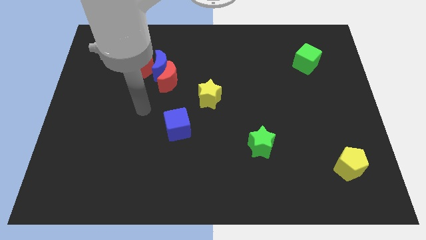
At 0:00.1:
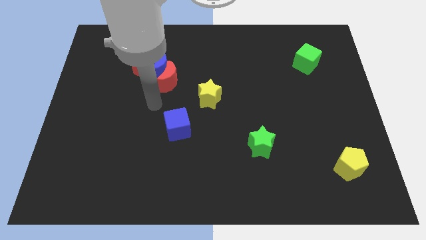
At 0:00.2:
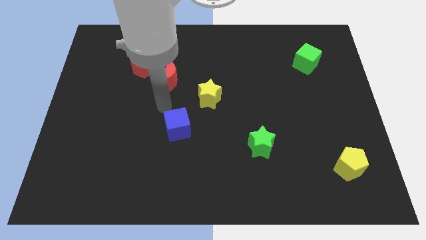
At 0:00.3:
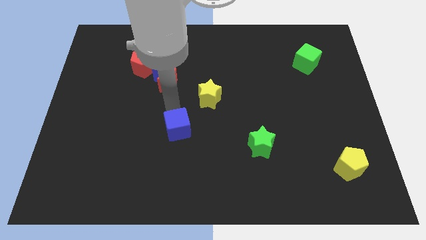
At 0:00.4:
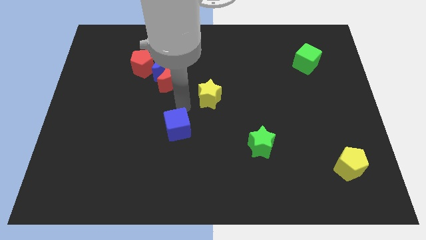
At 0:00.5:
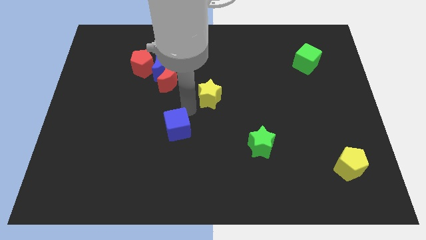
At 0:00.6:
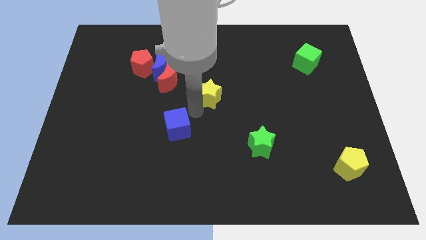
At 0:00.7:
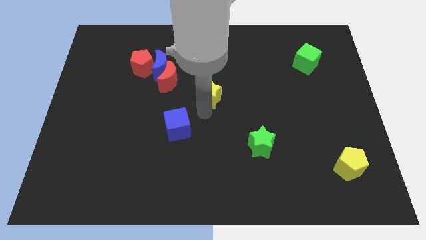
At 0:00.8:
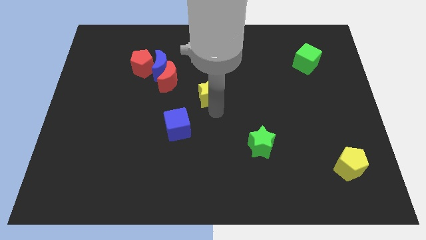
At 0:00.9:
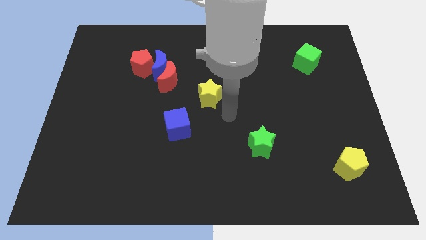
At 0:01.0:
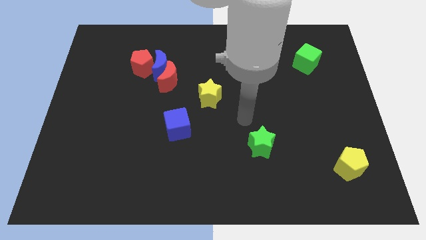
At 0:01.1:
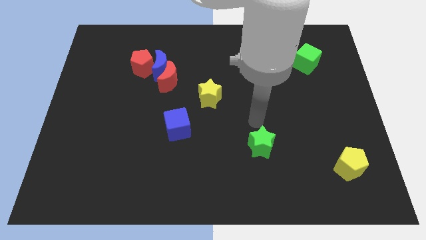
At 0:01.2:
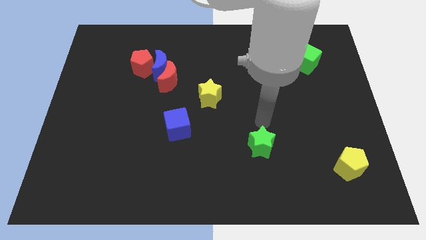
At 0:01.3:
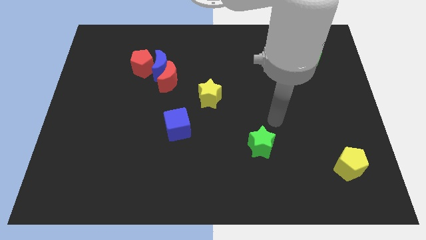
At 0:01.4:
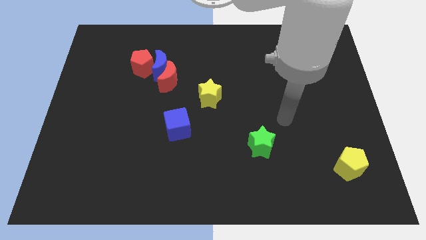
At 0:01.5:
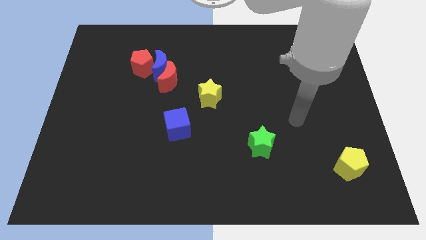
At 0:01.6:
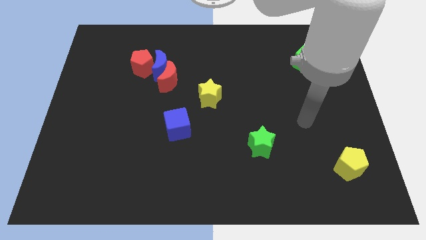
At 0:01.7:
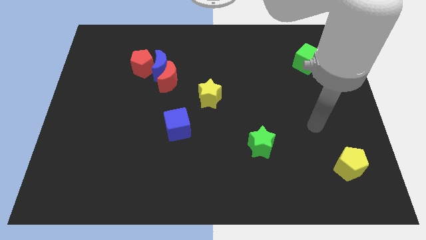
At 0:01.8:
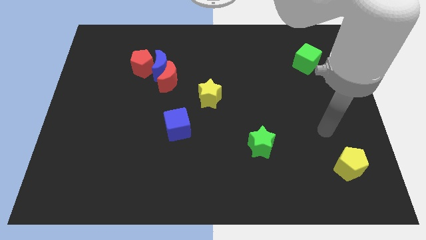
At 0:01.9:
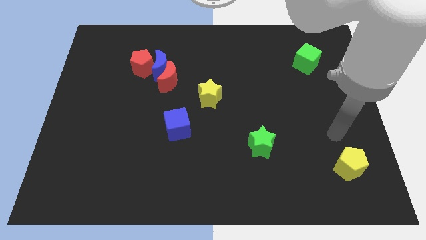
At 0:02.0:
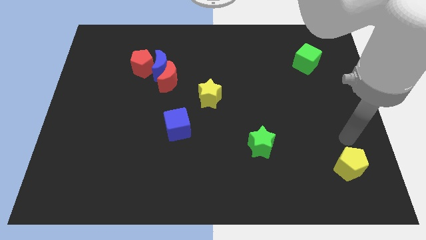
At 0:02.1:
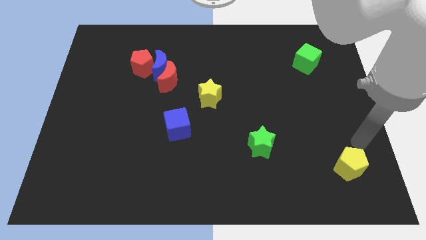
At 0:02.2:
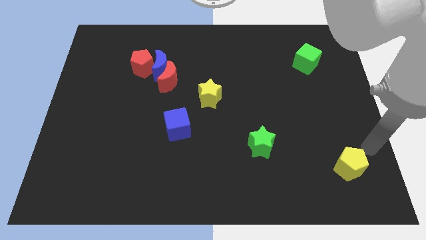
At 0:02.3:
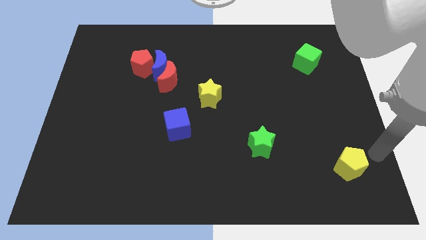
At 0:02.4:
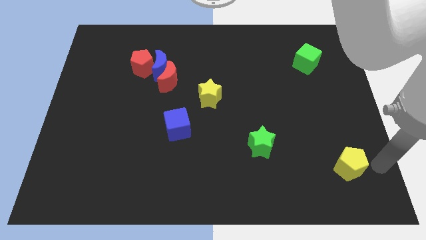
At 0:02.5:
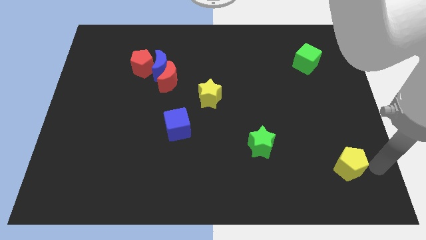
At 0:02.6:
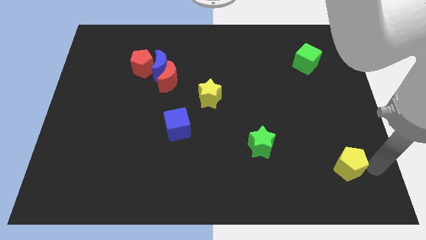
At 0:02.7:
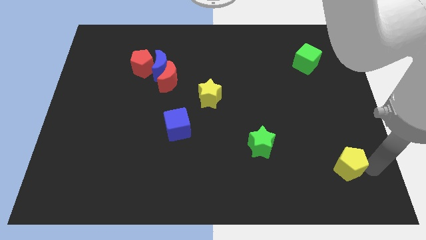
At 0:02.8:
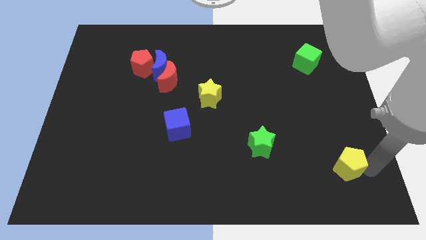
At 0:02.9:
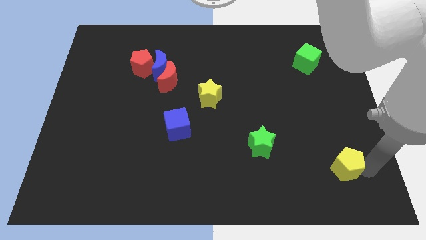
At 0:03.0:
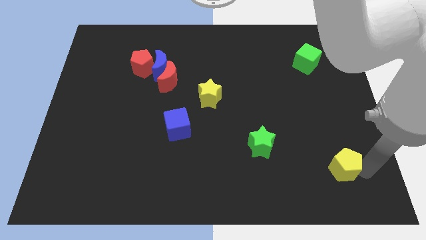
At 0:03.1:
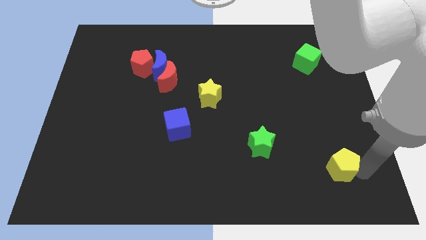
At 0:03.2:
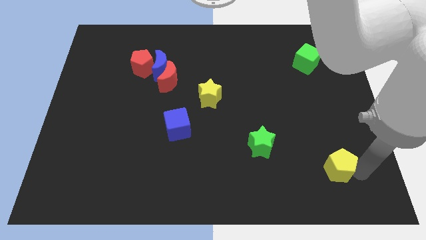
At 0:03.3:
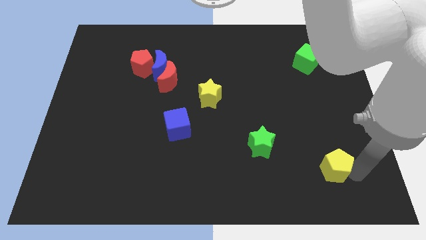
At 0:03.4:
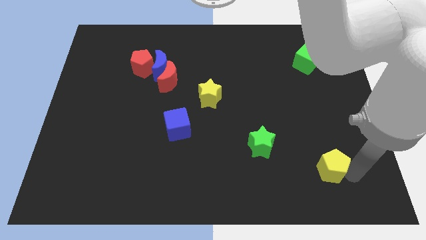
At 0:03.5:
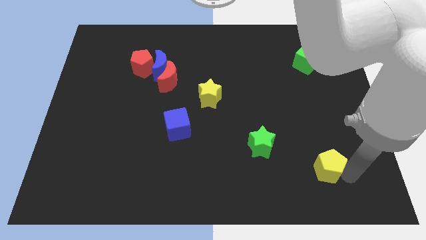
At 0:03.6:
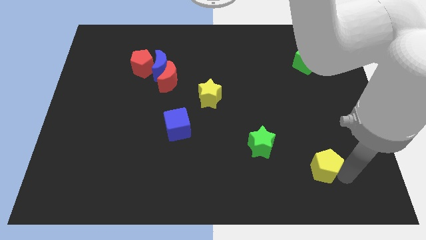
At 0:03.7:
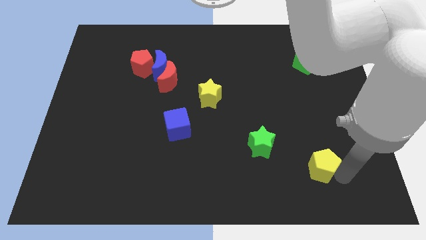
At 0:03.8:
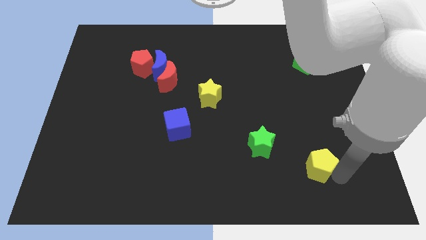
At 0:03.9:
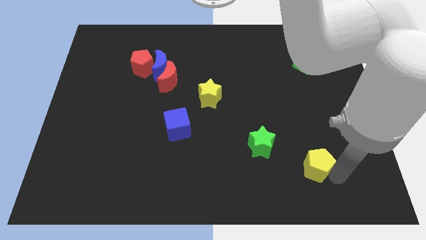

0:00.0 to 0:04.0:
slightly slide the yellow pentagon to the left

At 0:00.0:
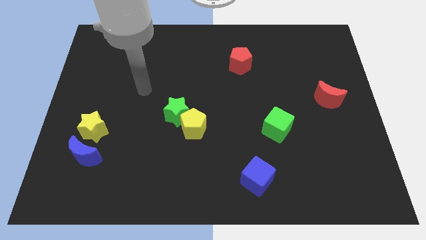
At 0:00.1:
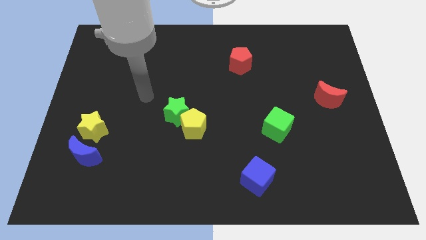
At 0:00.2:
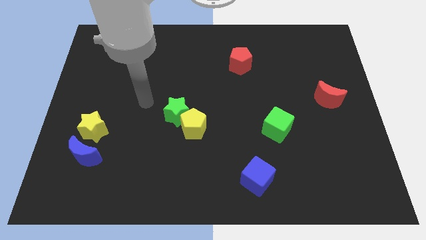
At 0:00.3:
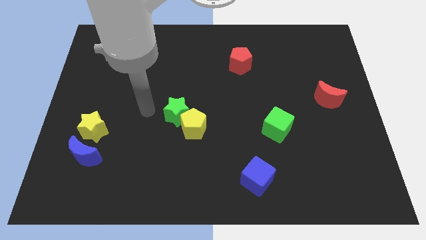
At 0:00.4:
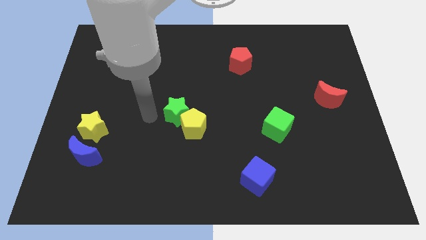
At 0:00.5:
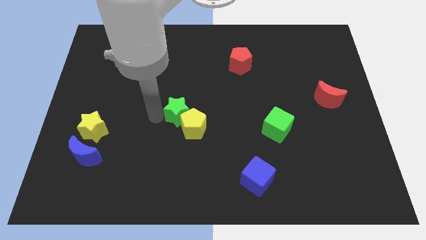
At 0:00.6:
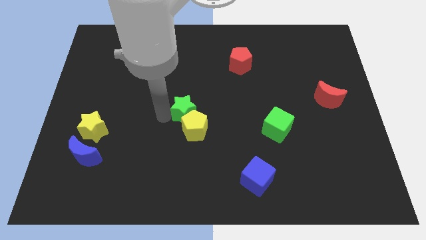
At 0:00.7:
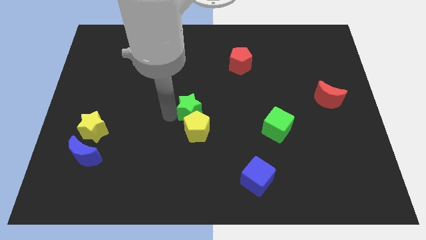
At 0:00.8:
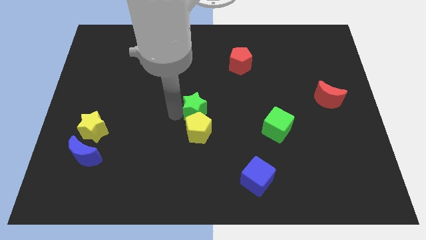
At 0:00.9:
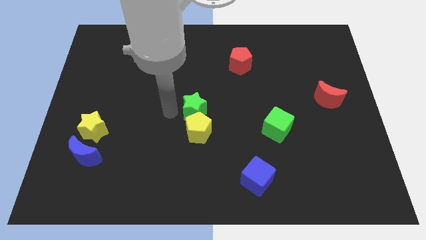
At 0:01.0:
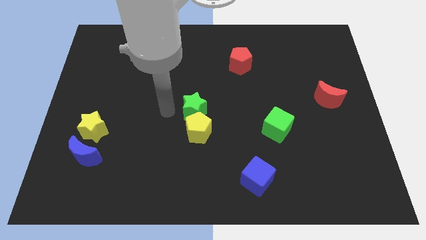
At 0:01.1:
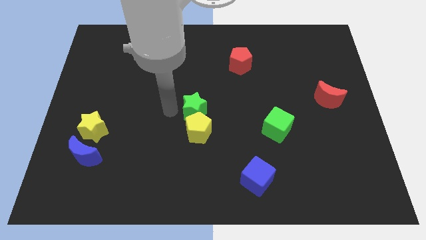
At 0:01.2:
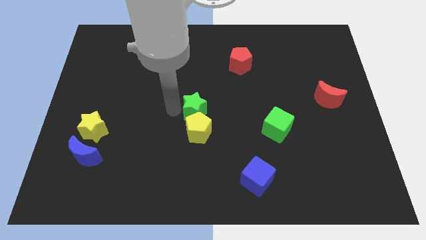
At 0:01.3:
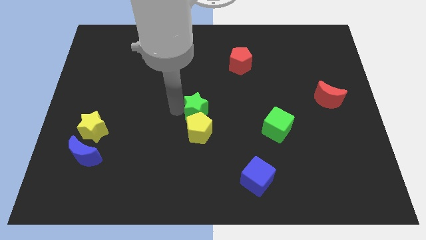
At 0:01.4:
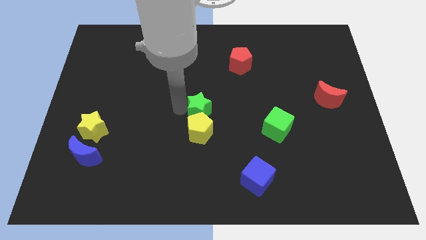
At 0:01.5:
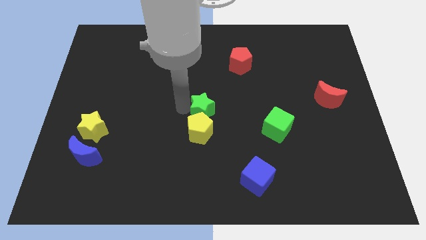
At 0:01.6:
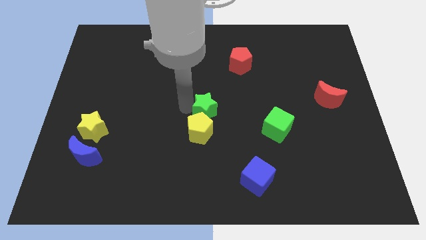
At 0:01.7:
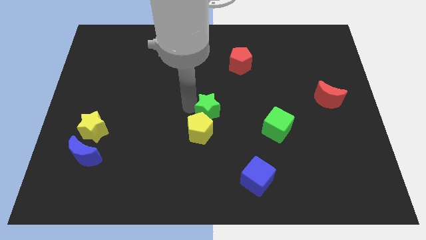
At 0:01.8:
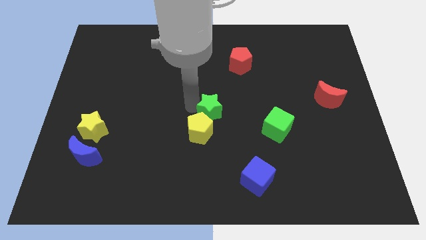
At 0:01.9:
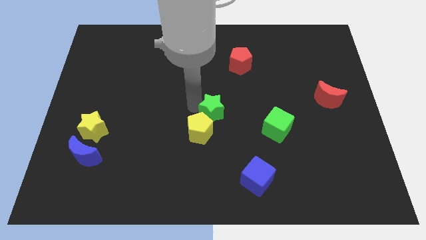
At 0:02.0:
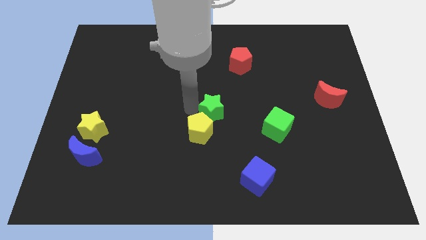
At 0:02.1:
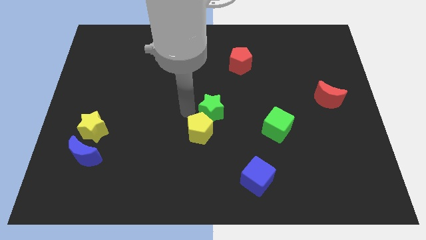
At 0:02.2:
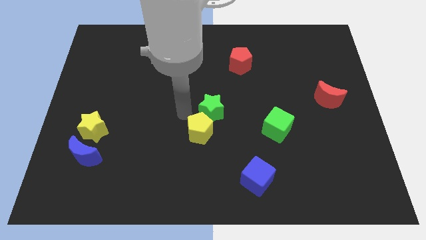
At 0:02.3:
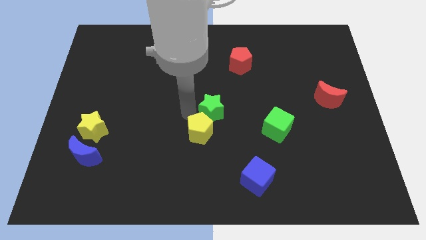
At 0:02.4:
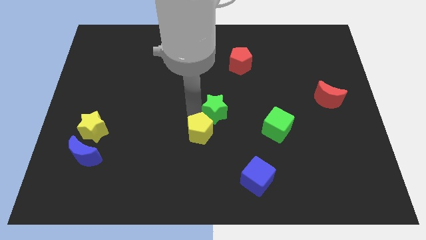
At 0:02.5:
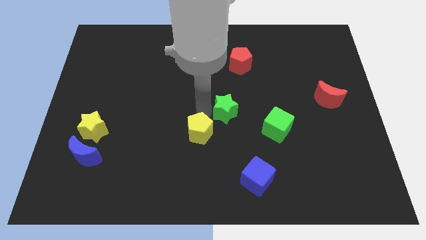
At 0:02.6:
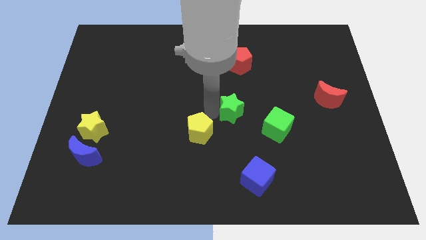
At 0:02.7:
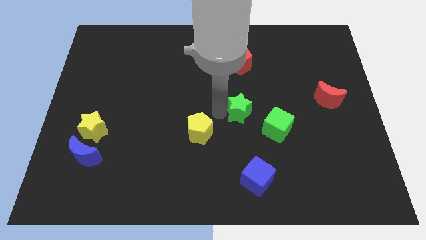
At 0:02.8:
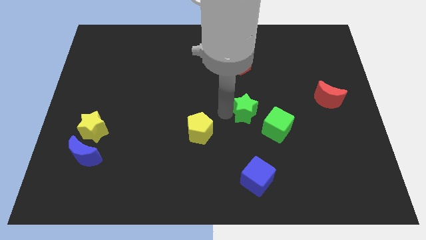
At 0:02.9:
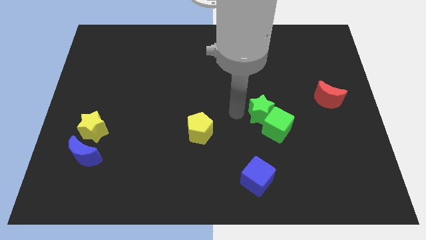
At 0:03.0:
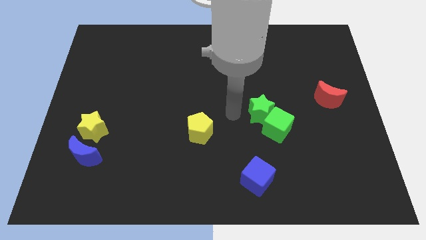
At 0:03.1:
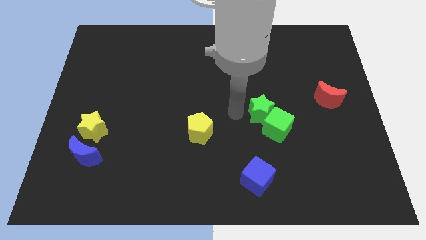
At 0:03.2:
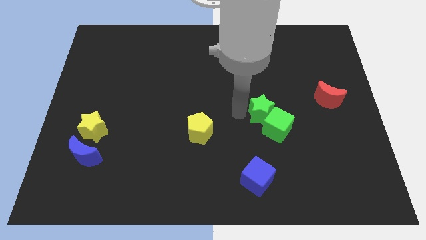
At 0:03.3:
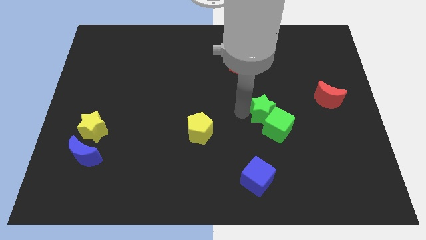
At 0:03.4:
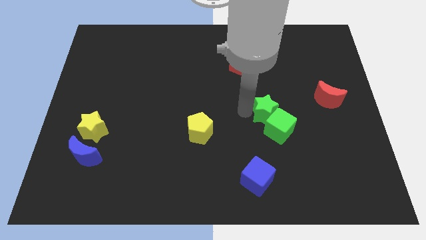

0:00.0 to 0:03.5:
push the green star right

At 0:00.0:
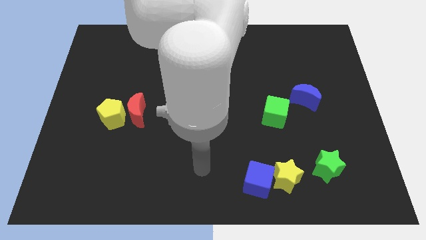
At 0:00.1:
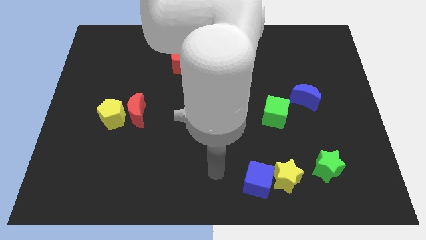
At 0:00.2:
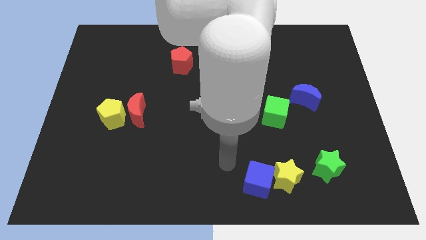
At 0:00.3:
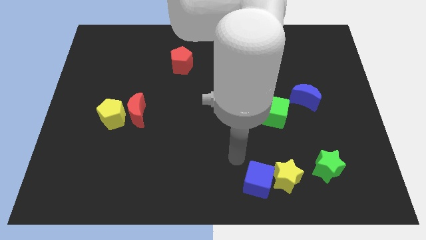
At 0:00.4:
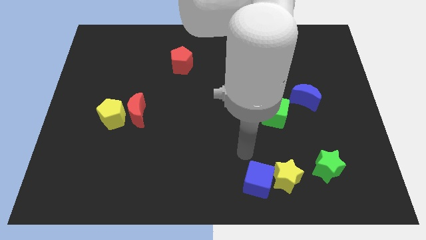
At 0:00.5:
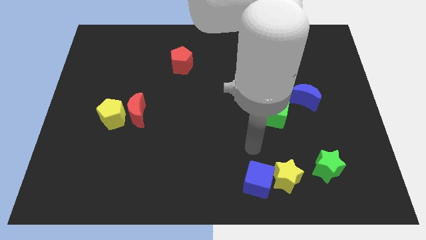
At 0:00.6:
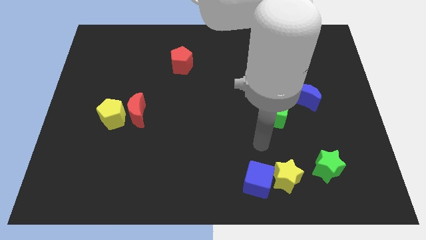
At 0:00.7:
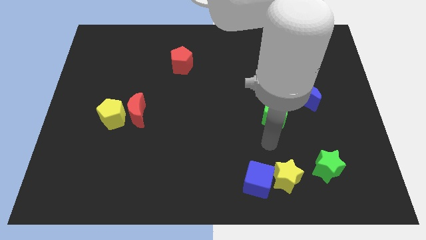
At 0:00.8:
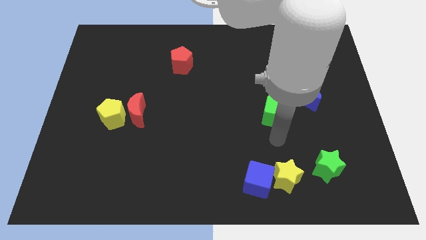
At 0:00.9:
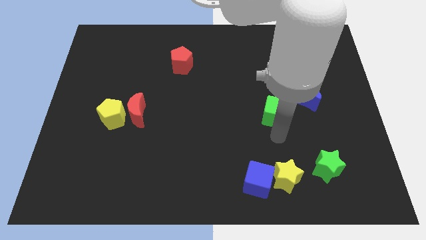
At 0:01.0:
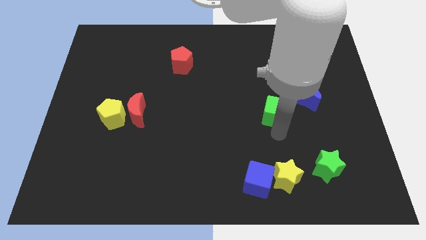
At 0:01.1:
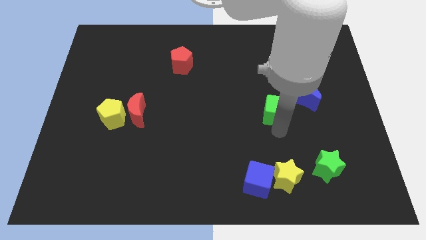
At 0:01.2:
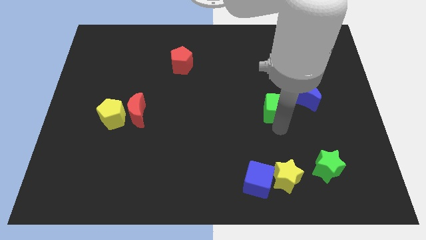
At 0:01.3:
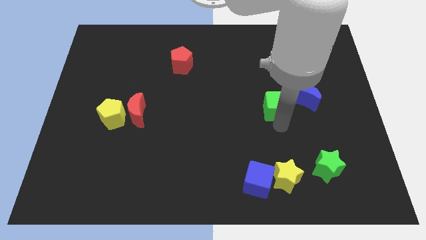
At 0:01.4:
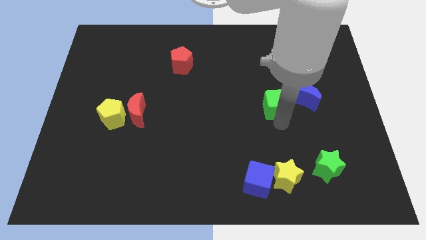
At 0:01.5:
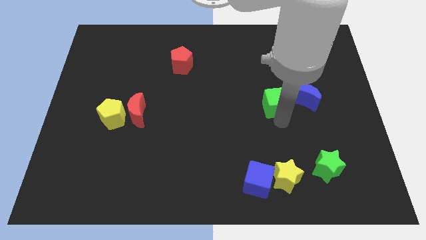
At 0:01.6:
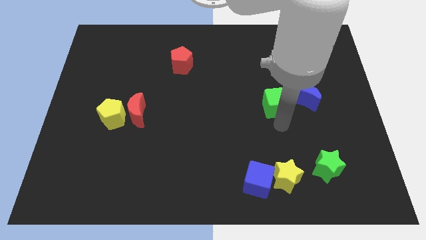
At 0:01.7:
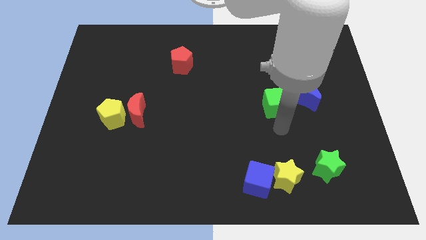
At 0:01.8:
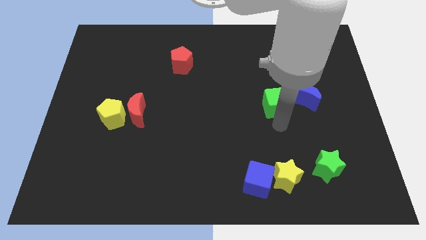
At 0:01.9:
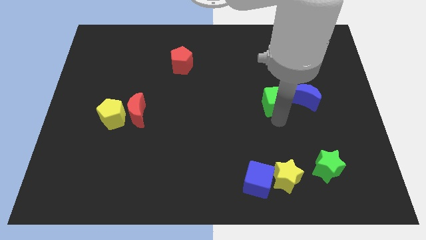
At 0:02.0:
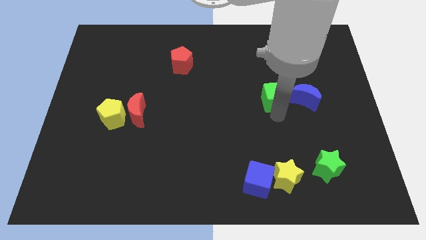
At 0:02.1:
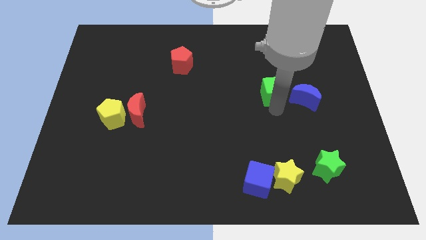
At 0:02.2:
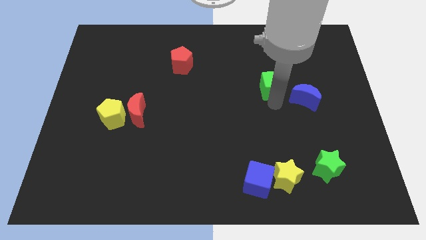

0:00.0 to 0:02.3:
slide the green cube up somewhat